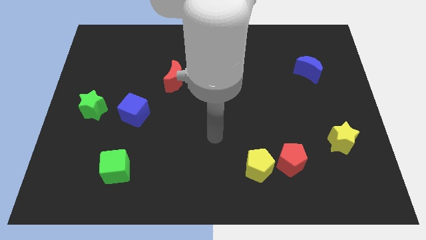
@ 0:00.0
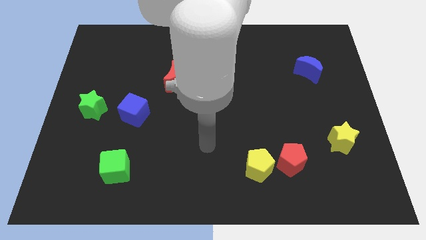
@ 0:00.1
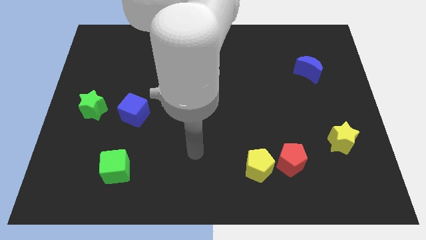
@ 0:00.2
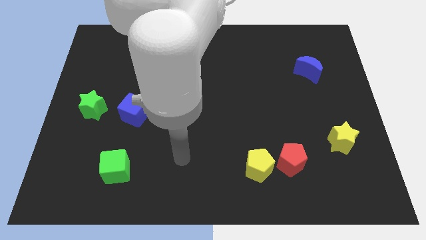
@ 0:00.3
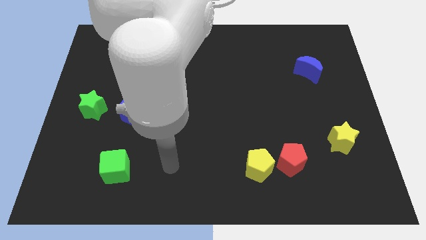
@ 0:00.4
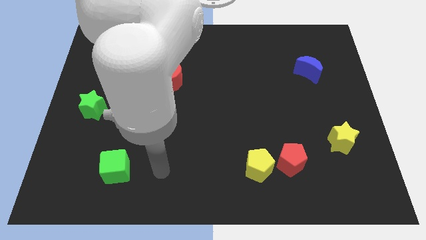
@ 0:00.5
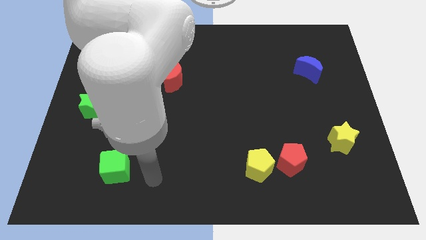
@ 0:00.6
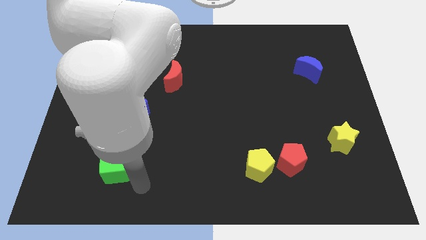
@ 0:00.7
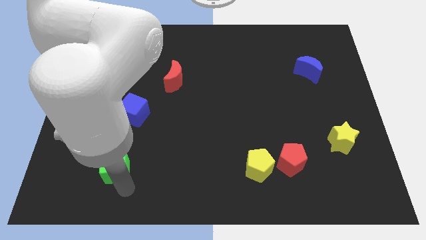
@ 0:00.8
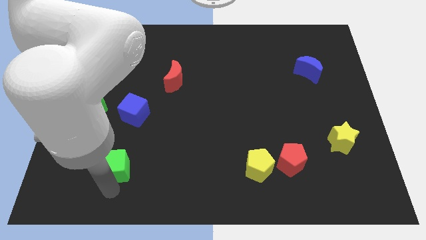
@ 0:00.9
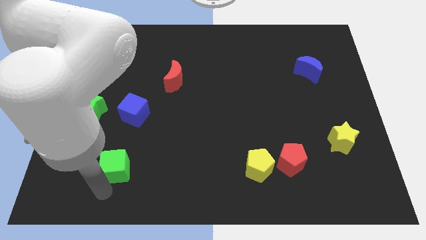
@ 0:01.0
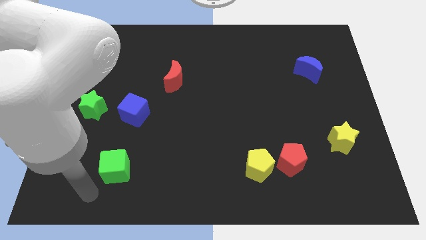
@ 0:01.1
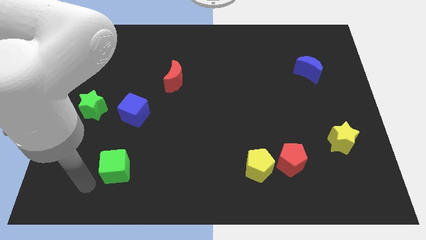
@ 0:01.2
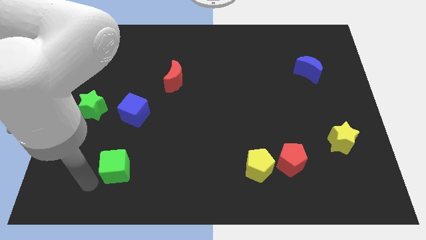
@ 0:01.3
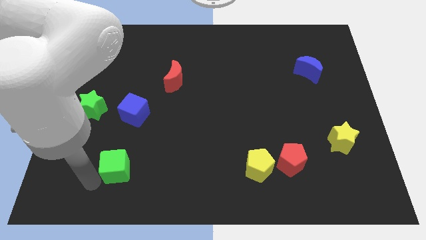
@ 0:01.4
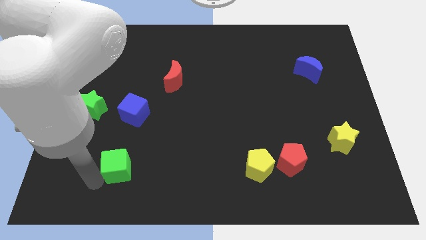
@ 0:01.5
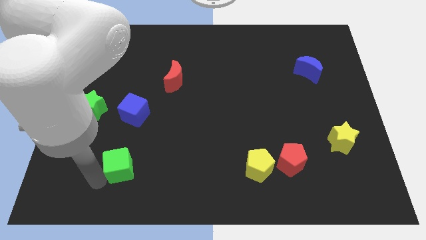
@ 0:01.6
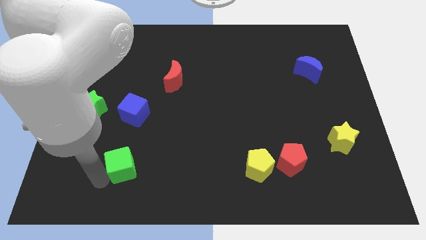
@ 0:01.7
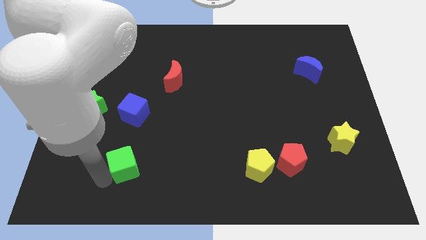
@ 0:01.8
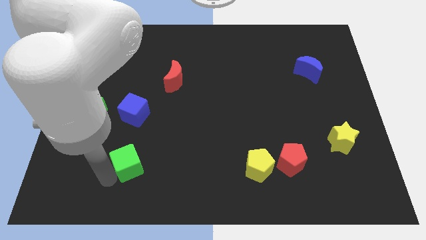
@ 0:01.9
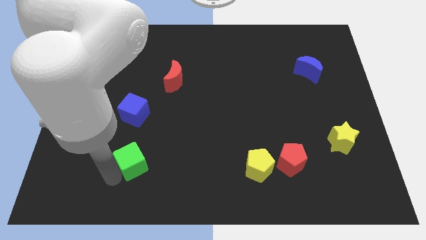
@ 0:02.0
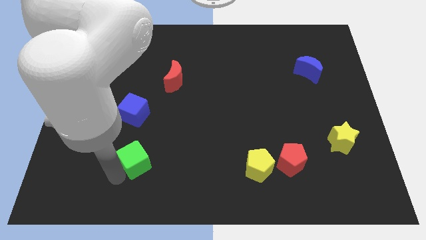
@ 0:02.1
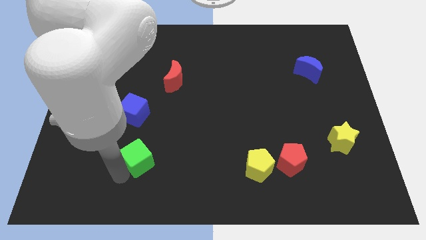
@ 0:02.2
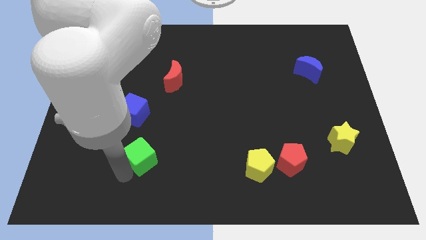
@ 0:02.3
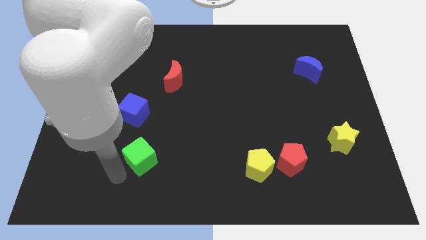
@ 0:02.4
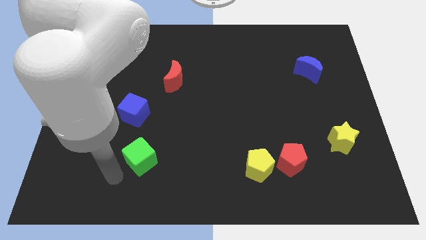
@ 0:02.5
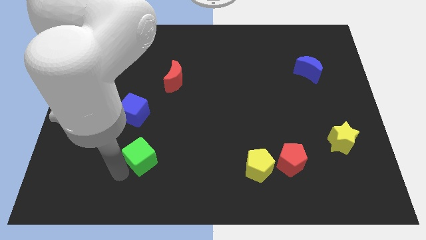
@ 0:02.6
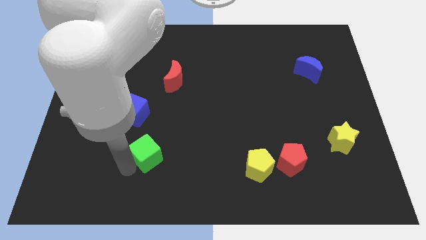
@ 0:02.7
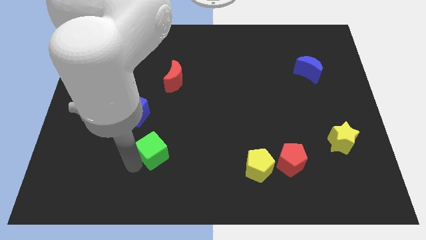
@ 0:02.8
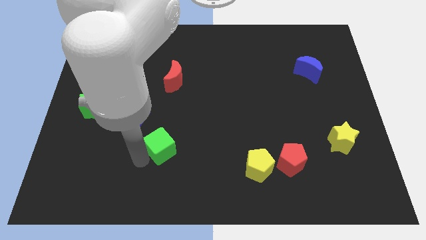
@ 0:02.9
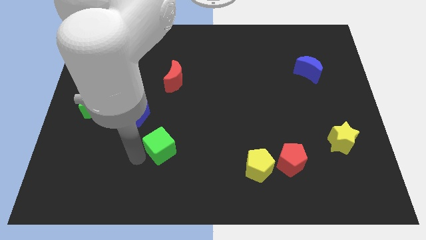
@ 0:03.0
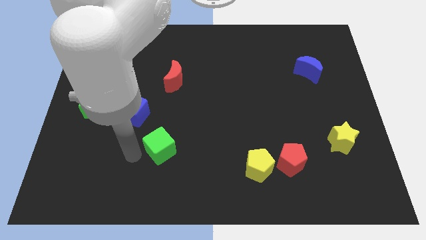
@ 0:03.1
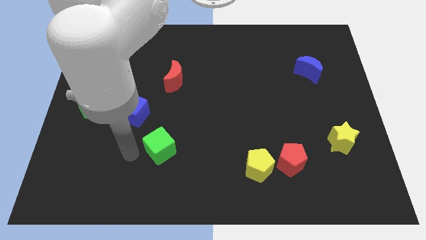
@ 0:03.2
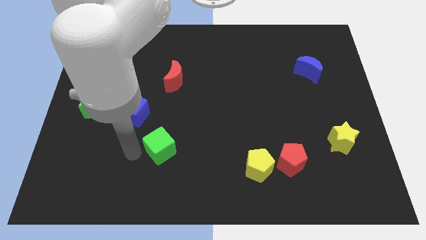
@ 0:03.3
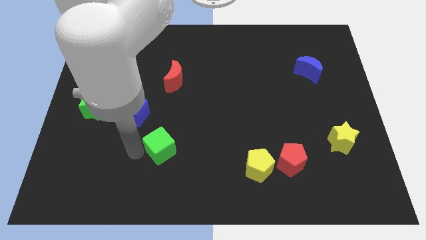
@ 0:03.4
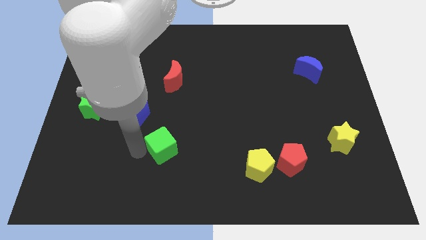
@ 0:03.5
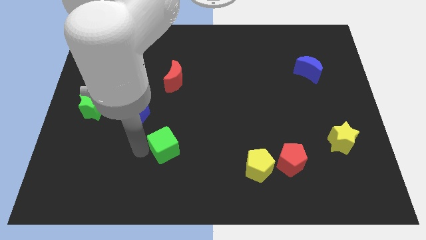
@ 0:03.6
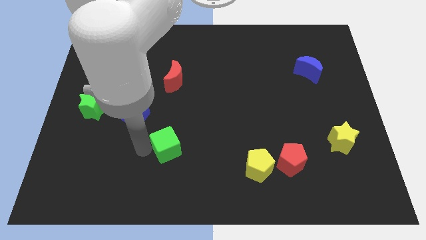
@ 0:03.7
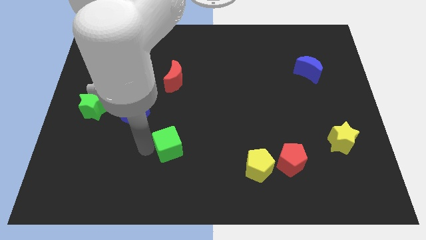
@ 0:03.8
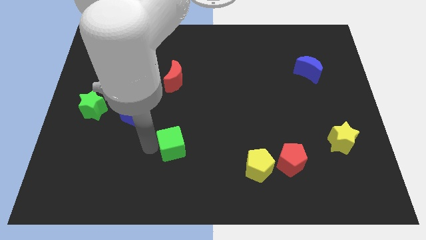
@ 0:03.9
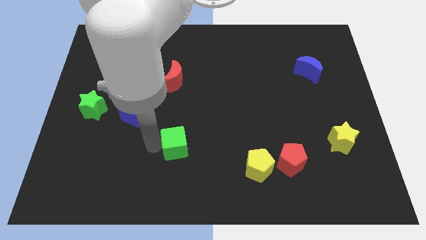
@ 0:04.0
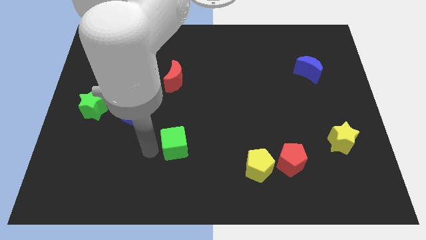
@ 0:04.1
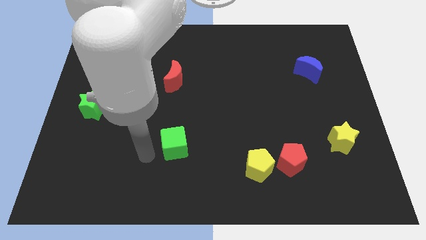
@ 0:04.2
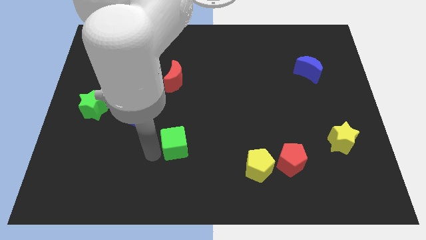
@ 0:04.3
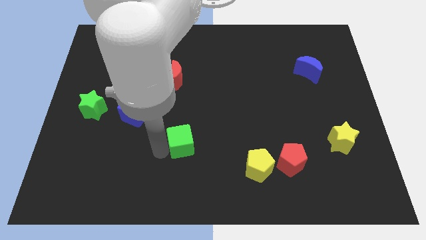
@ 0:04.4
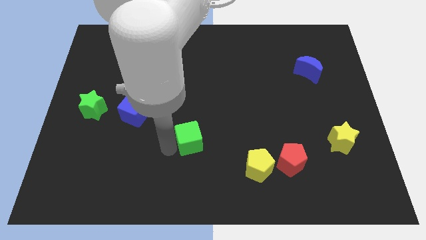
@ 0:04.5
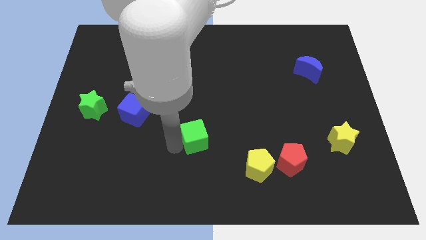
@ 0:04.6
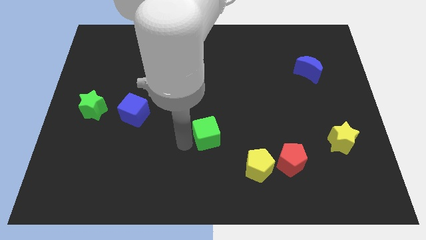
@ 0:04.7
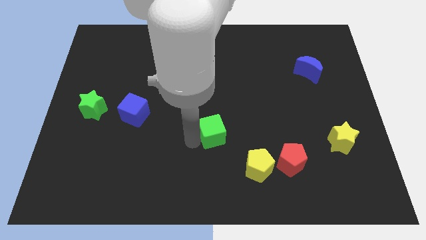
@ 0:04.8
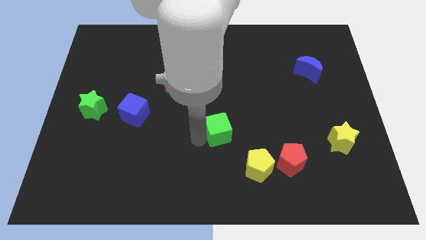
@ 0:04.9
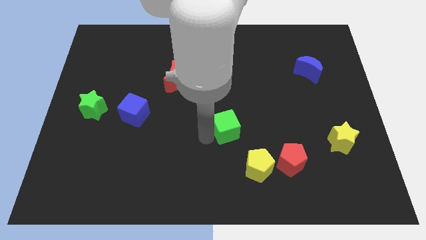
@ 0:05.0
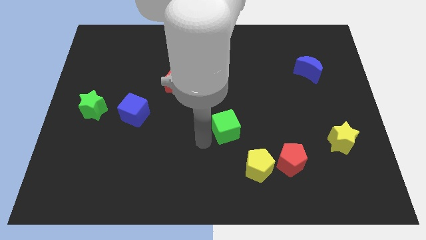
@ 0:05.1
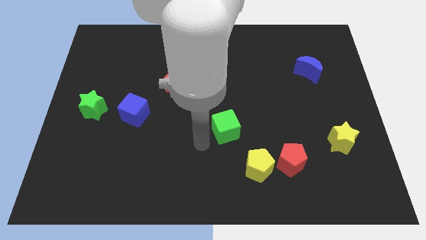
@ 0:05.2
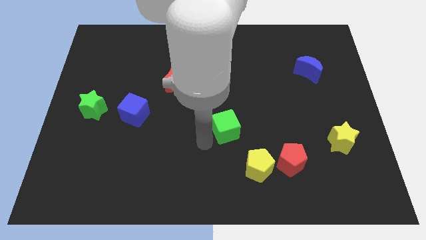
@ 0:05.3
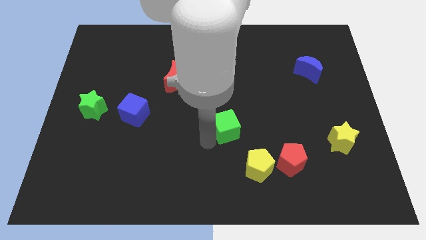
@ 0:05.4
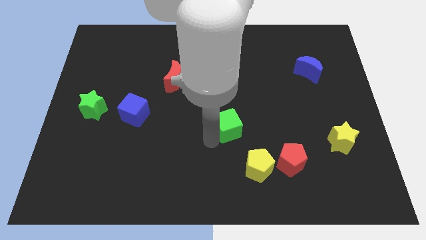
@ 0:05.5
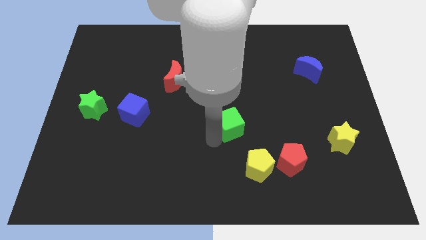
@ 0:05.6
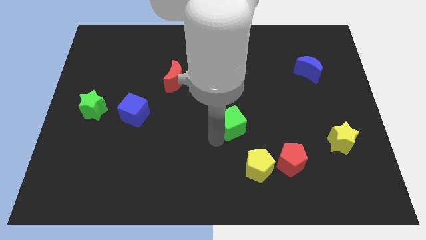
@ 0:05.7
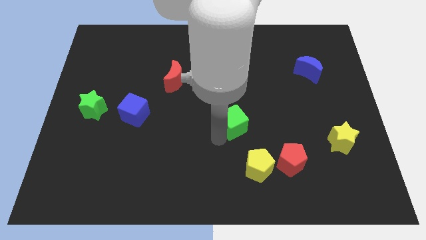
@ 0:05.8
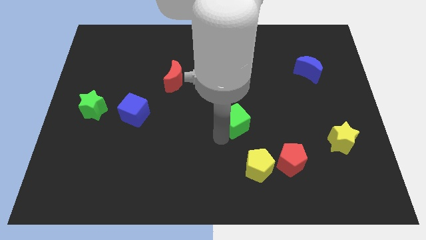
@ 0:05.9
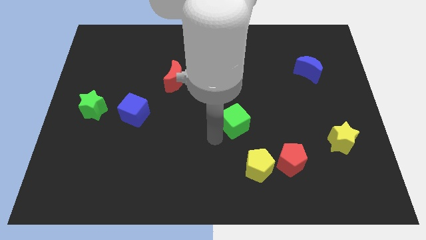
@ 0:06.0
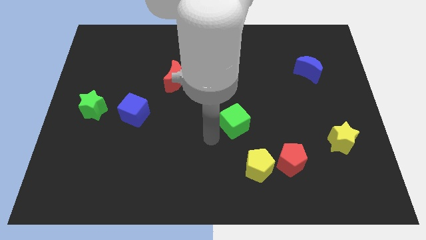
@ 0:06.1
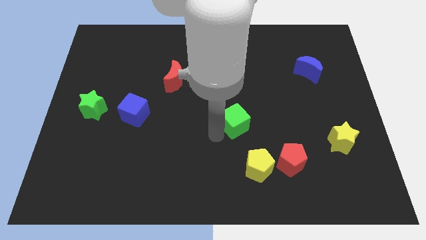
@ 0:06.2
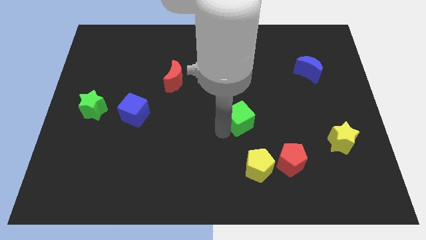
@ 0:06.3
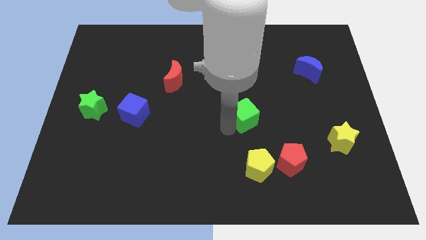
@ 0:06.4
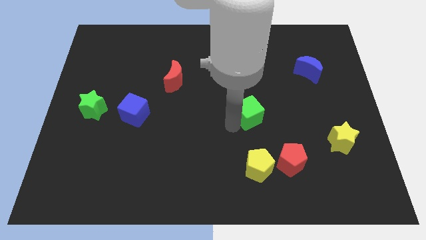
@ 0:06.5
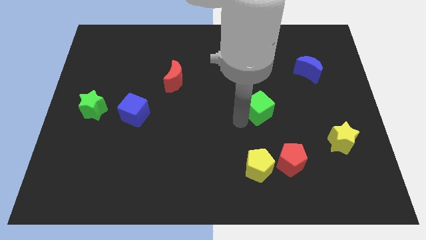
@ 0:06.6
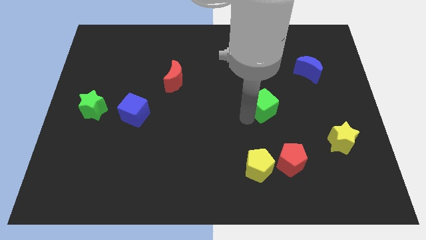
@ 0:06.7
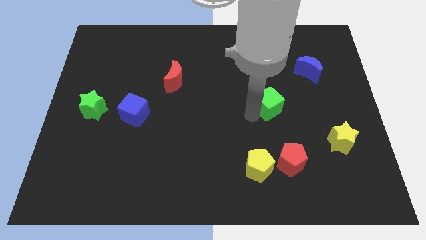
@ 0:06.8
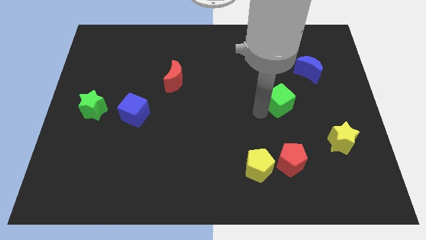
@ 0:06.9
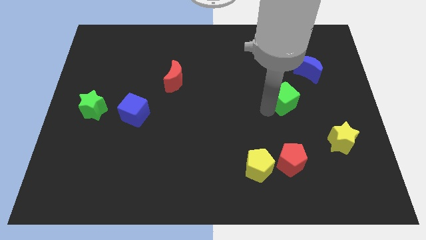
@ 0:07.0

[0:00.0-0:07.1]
push the green cube to the bottom left of the blue moon

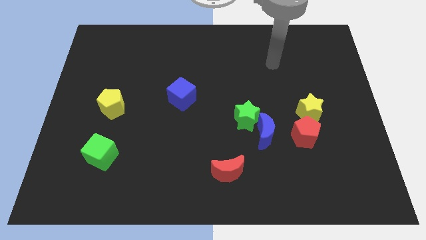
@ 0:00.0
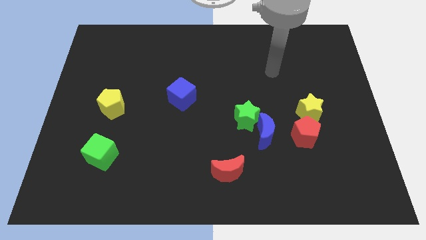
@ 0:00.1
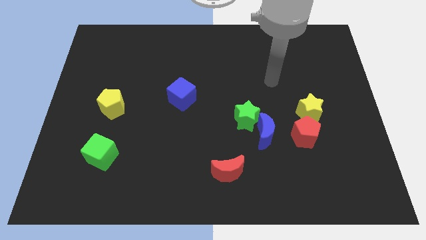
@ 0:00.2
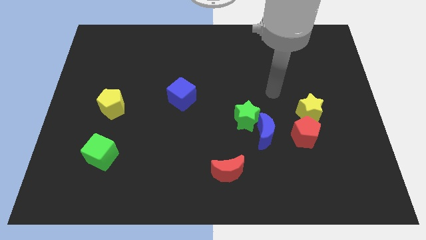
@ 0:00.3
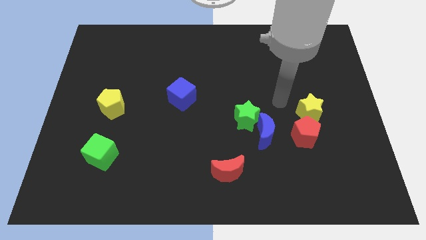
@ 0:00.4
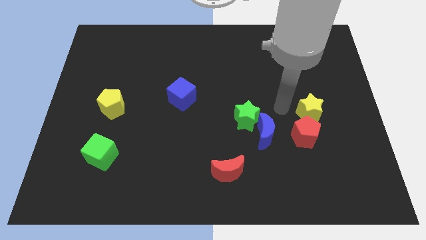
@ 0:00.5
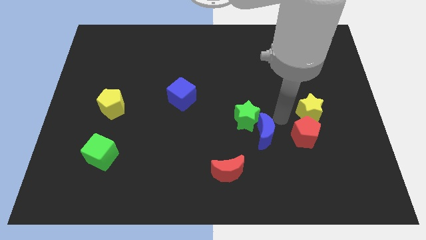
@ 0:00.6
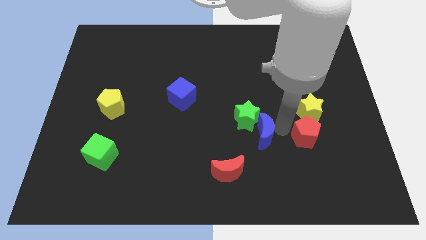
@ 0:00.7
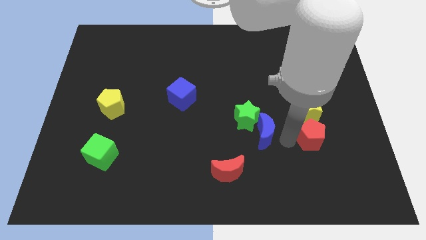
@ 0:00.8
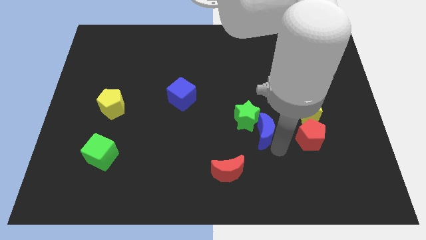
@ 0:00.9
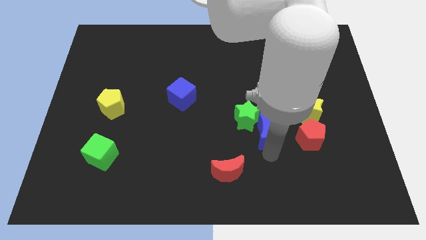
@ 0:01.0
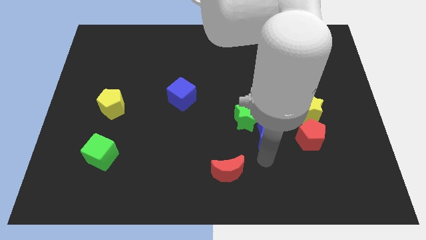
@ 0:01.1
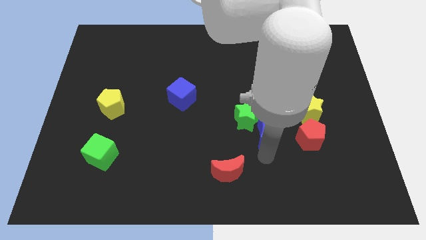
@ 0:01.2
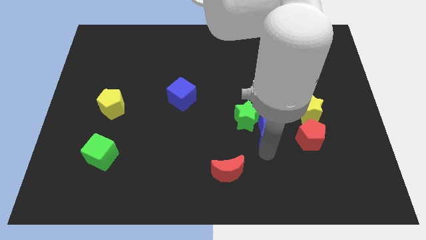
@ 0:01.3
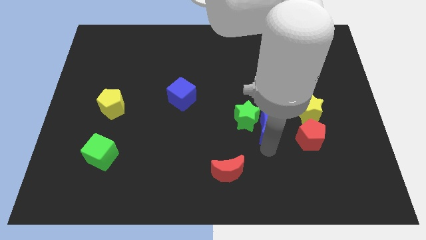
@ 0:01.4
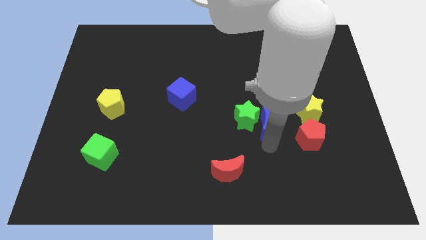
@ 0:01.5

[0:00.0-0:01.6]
slide the blue moon to the top right of the green star
